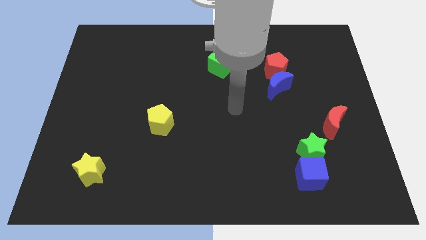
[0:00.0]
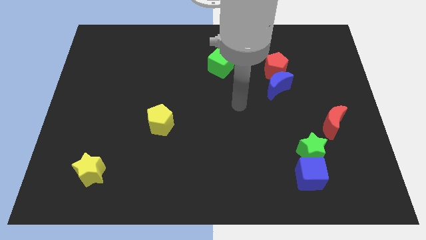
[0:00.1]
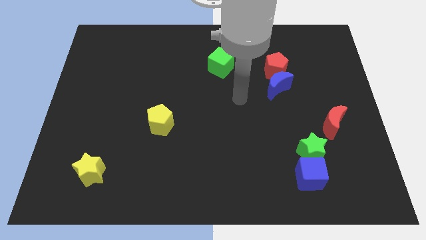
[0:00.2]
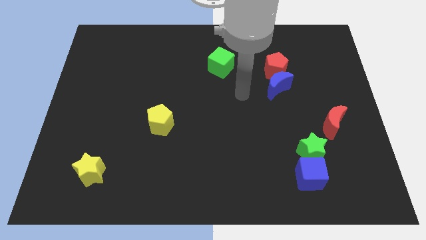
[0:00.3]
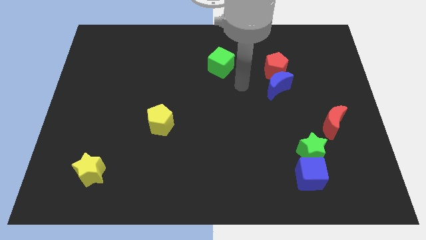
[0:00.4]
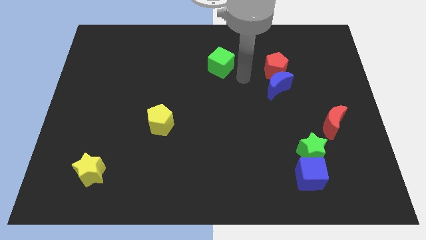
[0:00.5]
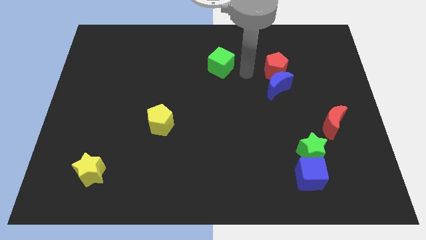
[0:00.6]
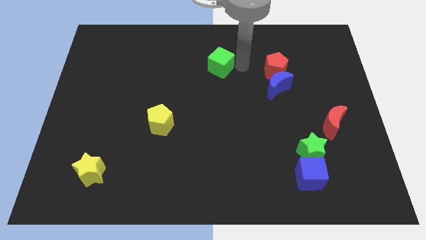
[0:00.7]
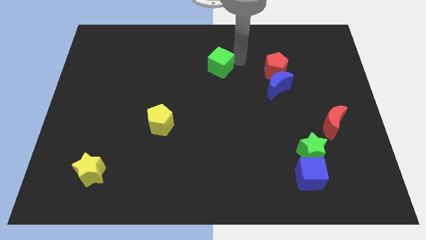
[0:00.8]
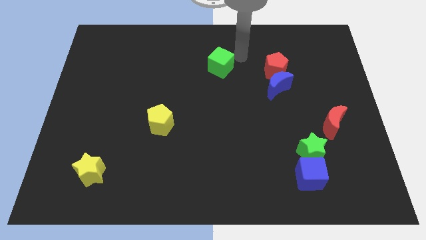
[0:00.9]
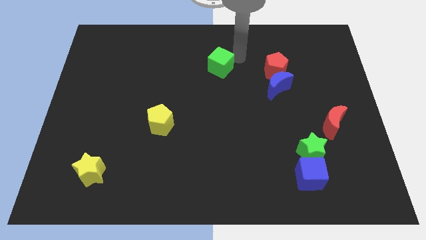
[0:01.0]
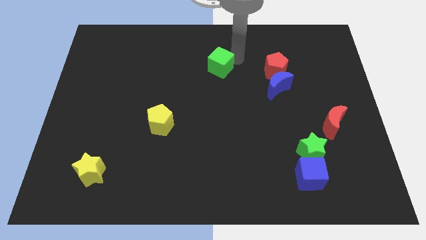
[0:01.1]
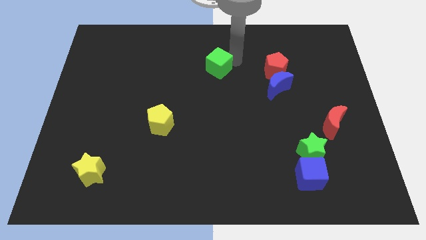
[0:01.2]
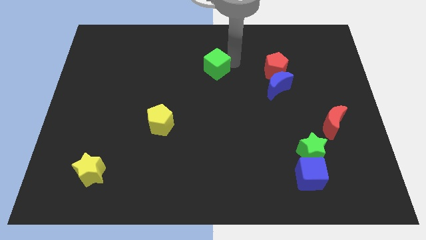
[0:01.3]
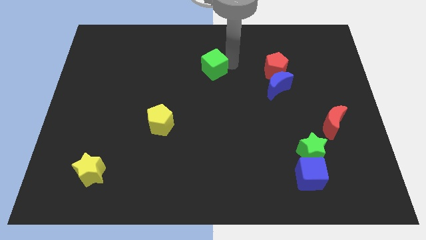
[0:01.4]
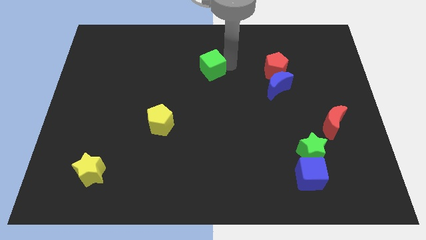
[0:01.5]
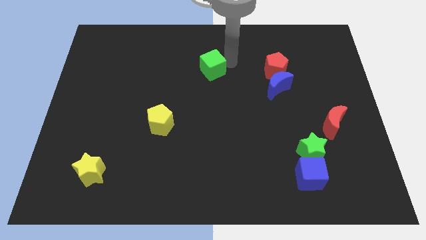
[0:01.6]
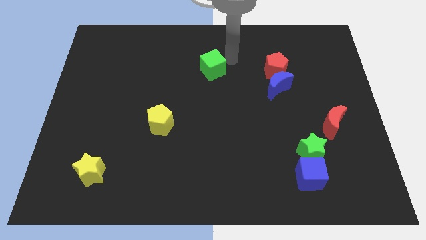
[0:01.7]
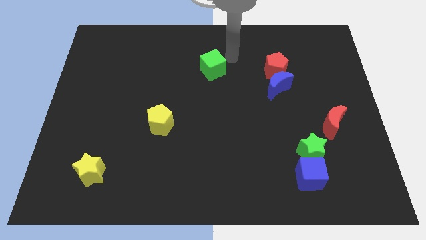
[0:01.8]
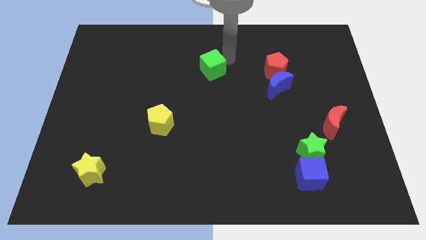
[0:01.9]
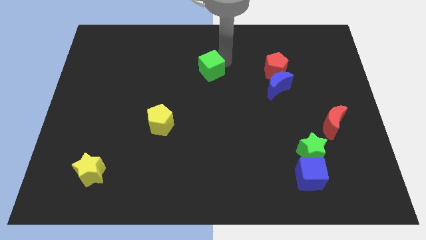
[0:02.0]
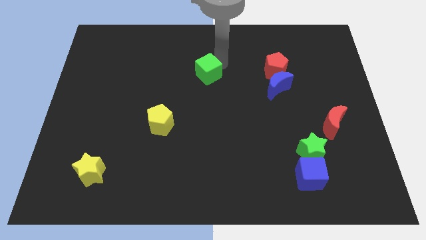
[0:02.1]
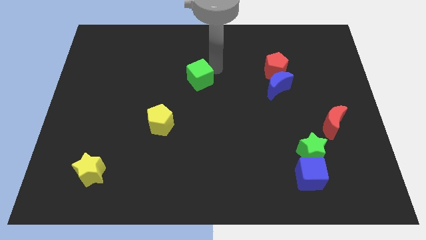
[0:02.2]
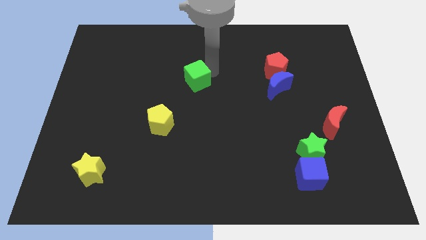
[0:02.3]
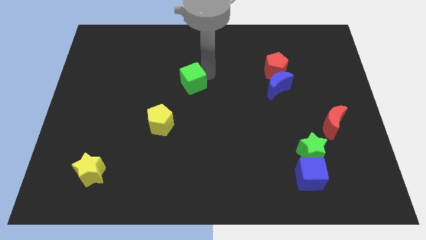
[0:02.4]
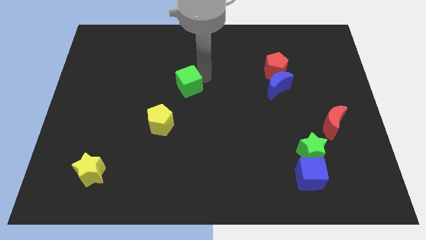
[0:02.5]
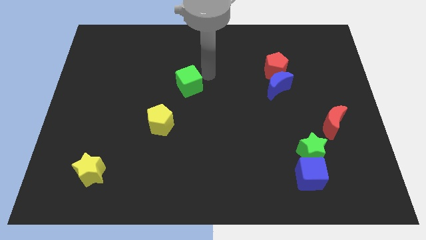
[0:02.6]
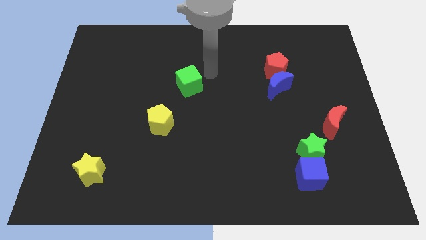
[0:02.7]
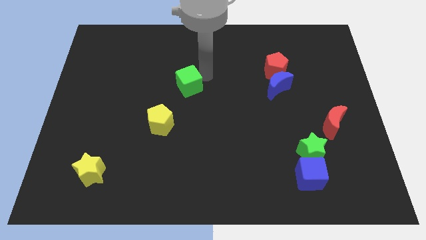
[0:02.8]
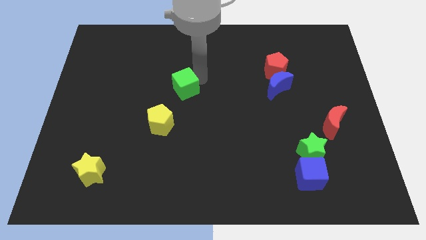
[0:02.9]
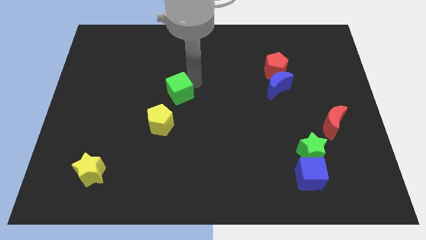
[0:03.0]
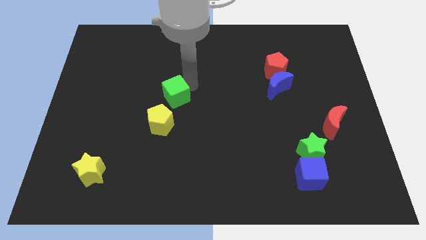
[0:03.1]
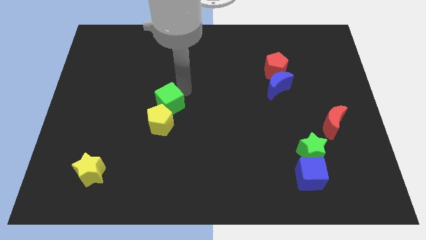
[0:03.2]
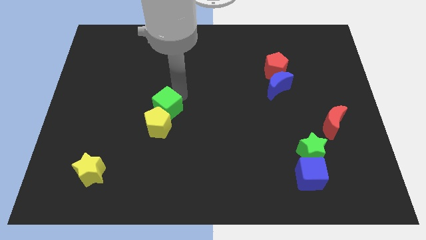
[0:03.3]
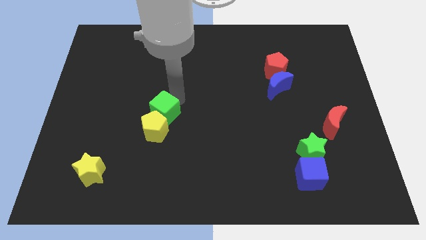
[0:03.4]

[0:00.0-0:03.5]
slide the green cube down and then to the left

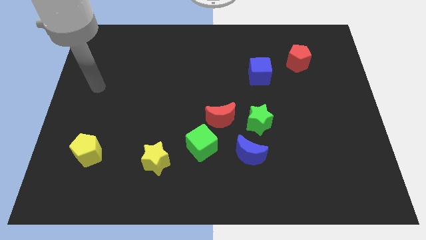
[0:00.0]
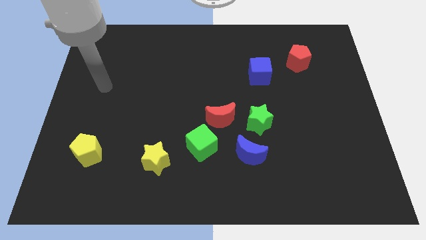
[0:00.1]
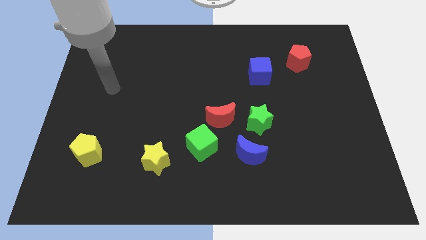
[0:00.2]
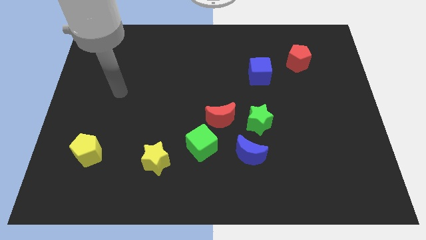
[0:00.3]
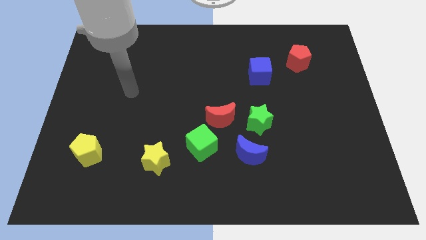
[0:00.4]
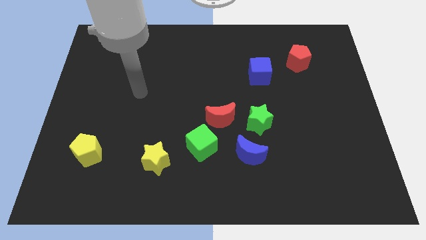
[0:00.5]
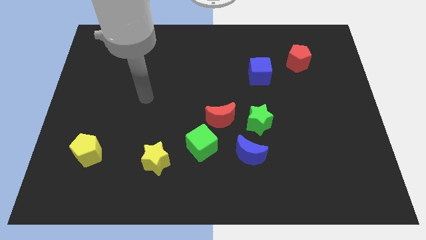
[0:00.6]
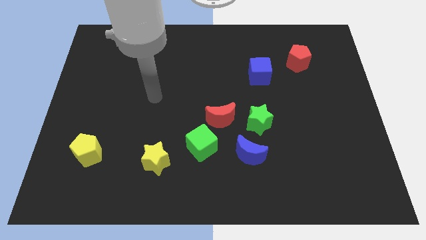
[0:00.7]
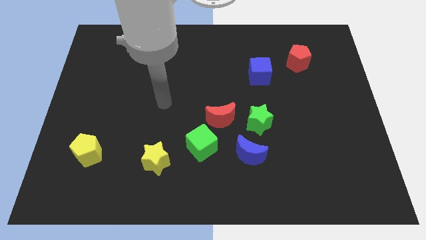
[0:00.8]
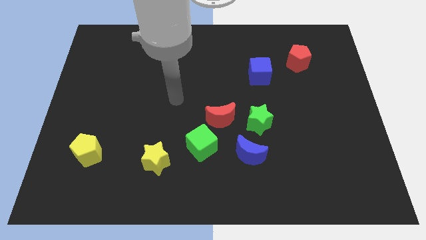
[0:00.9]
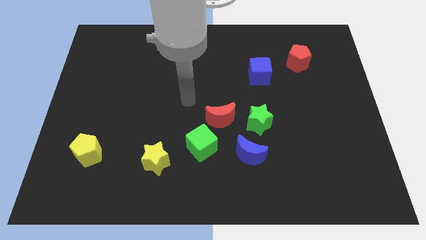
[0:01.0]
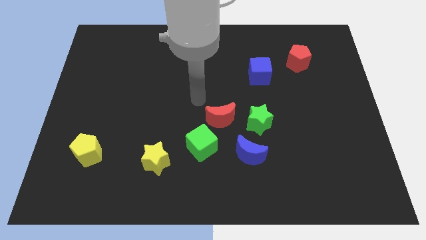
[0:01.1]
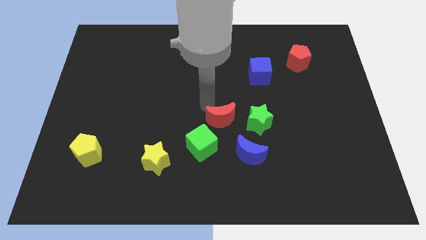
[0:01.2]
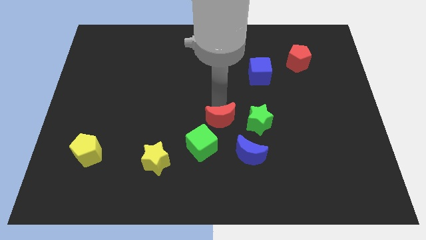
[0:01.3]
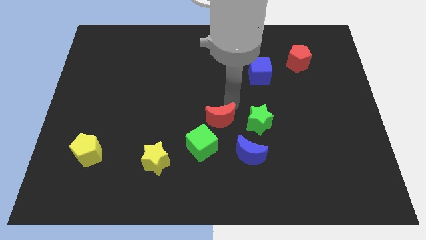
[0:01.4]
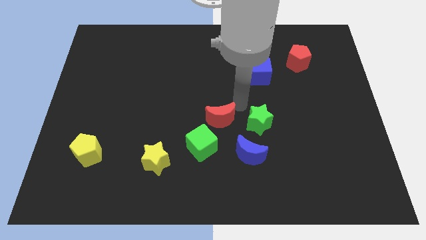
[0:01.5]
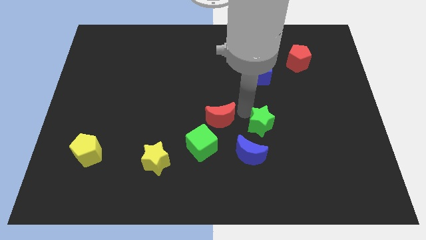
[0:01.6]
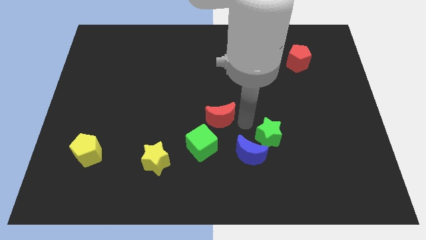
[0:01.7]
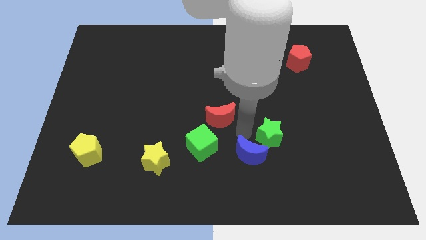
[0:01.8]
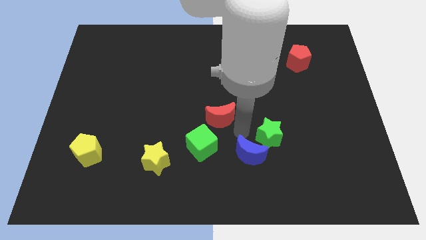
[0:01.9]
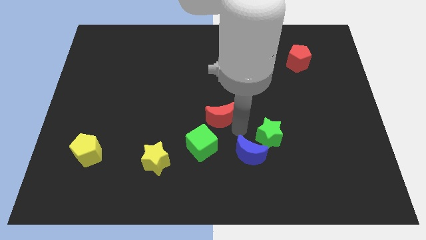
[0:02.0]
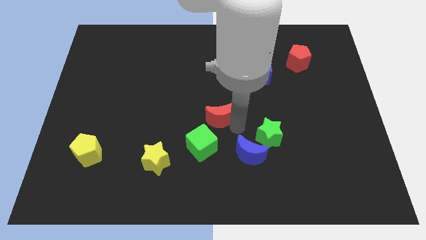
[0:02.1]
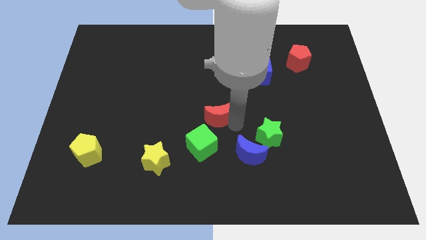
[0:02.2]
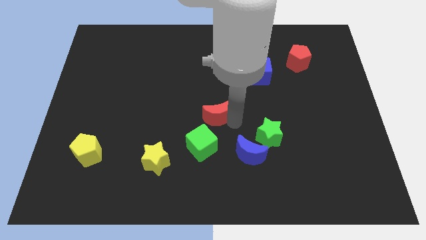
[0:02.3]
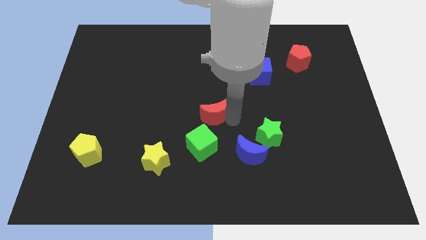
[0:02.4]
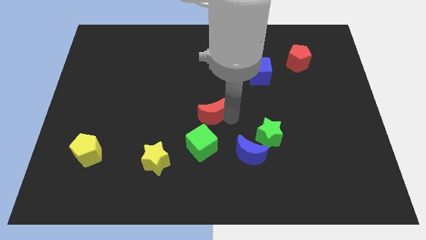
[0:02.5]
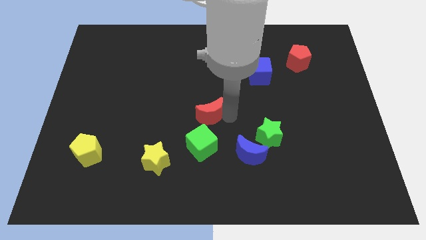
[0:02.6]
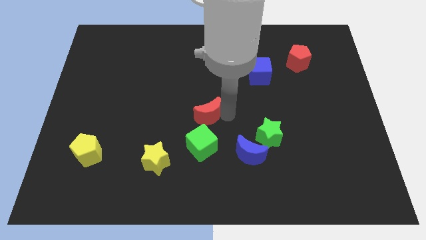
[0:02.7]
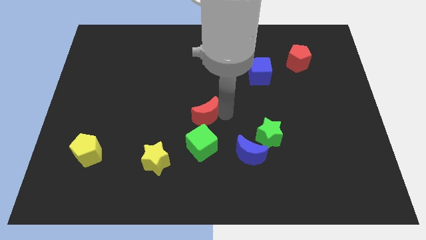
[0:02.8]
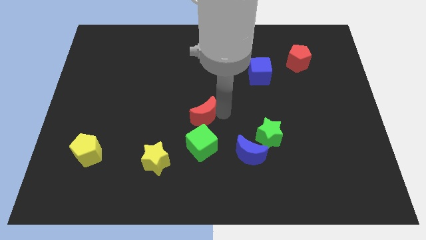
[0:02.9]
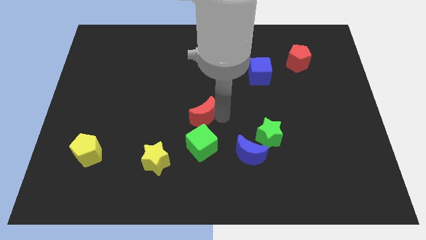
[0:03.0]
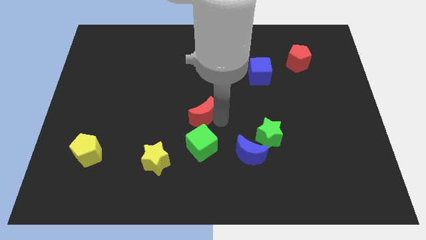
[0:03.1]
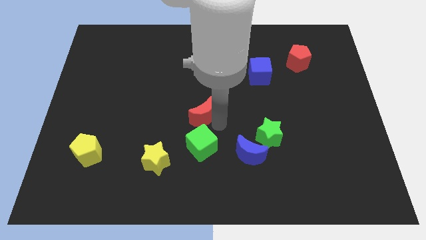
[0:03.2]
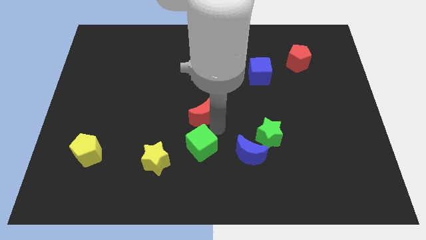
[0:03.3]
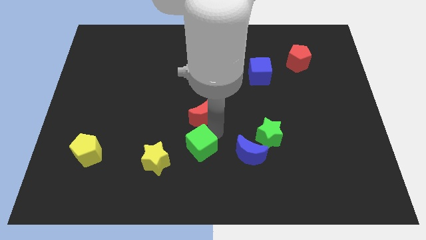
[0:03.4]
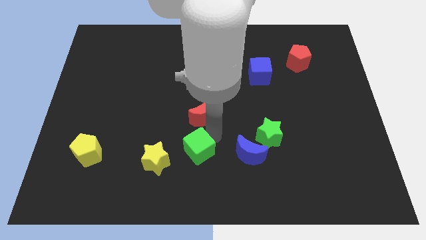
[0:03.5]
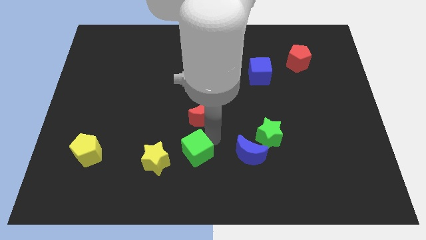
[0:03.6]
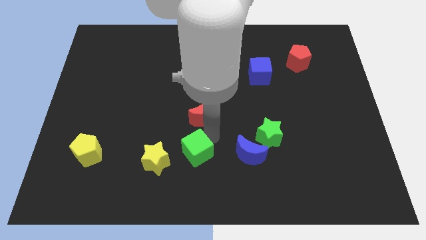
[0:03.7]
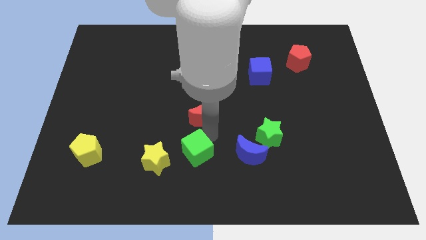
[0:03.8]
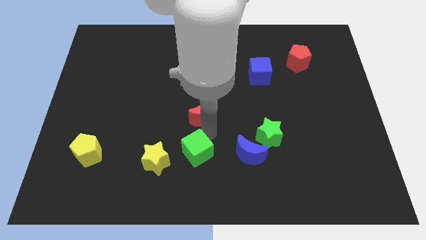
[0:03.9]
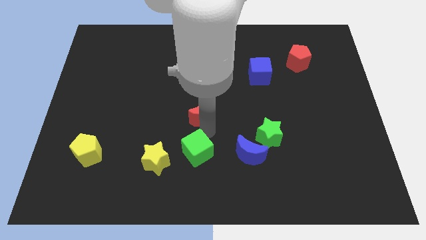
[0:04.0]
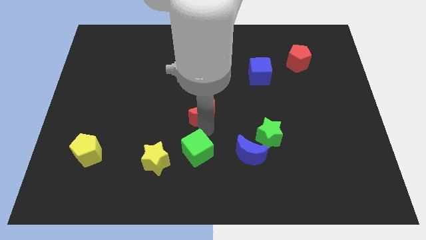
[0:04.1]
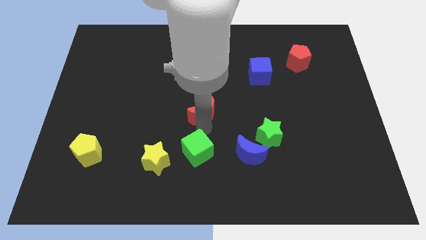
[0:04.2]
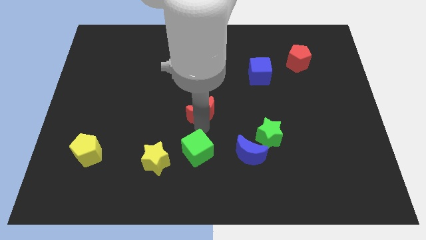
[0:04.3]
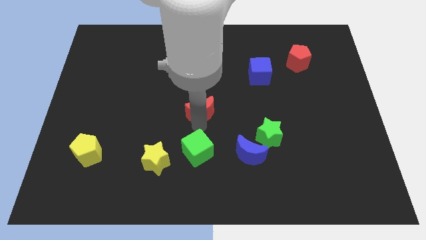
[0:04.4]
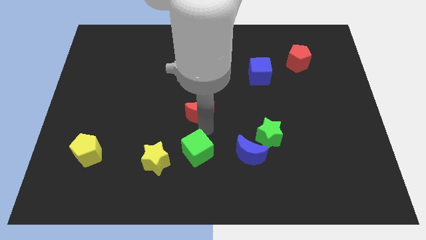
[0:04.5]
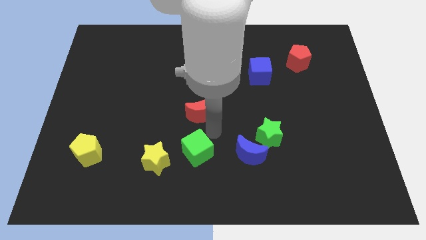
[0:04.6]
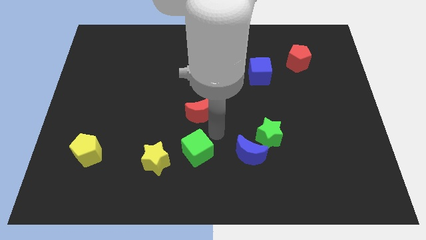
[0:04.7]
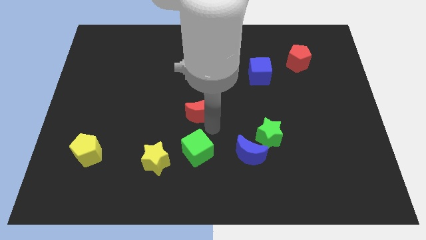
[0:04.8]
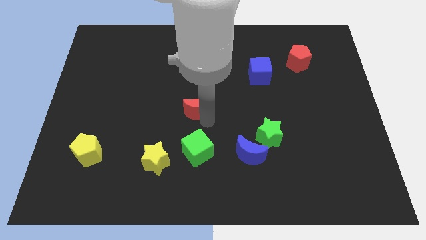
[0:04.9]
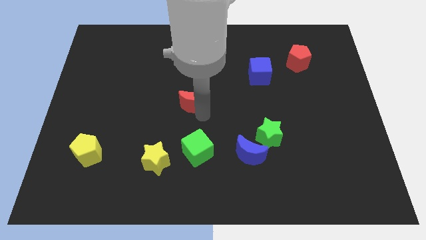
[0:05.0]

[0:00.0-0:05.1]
push the red moon upwards and to the left diagonally a bit
